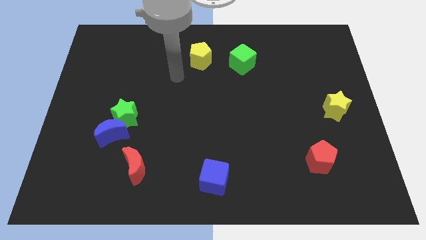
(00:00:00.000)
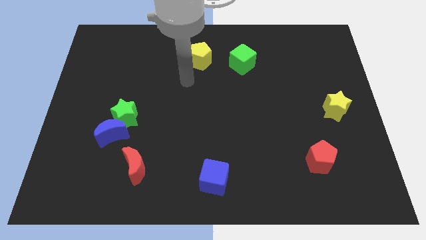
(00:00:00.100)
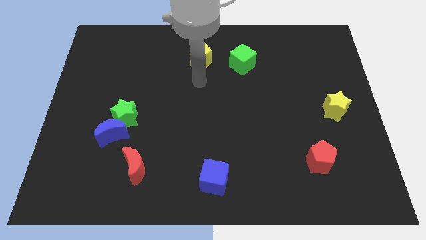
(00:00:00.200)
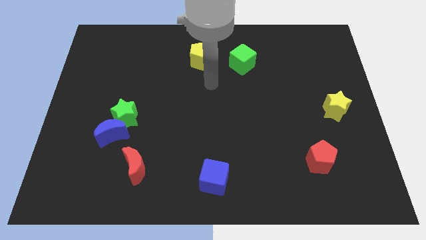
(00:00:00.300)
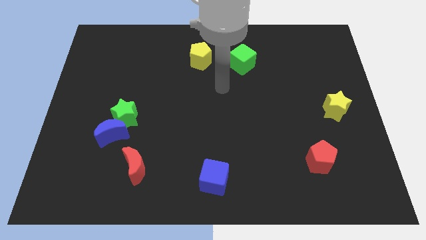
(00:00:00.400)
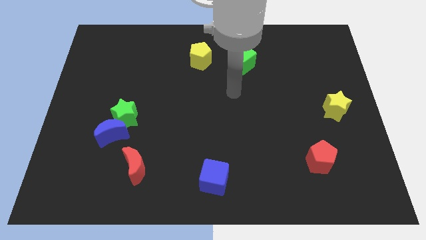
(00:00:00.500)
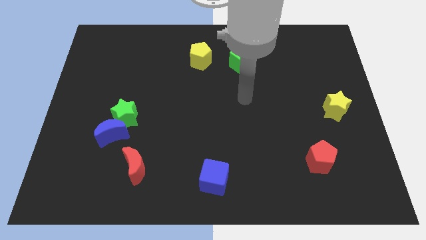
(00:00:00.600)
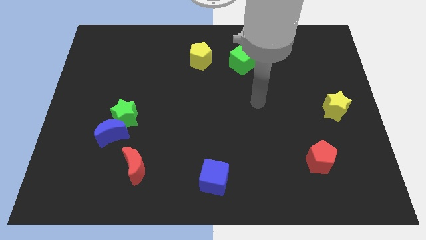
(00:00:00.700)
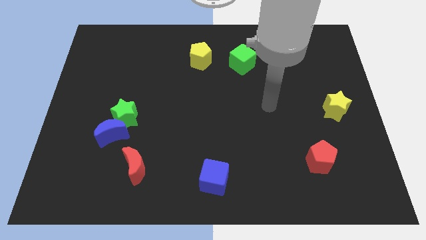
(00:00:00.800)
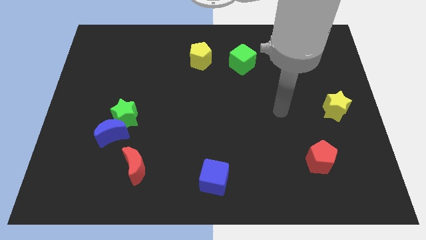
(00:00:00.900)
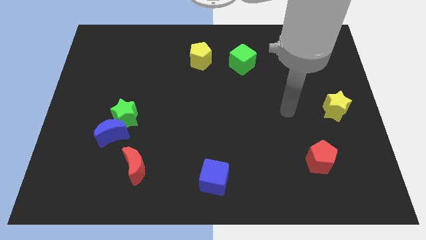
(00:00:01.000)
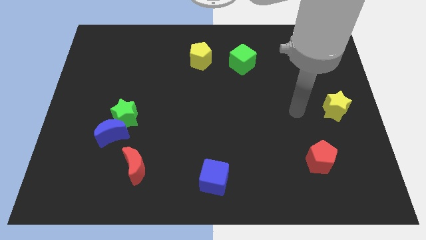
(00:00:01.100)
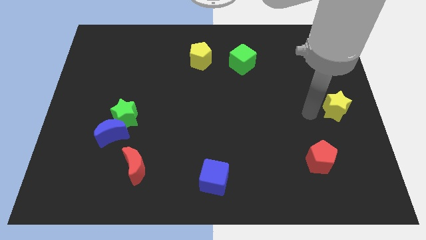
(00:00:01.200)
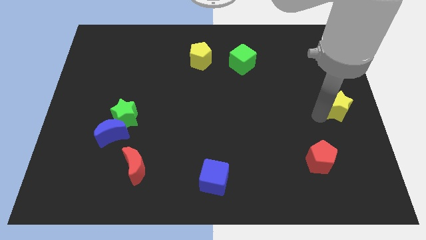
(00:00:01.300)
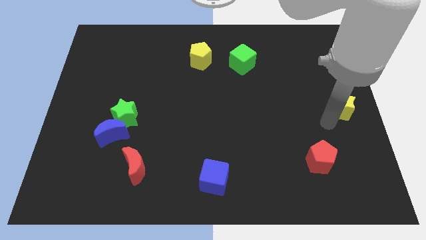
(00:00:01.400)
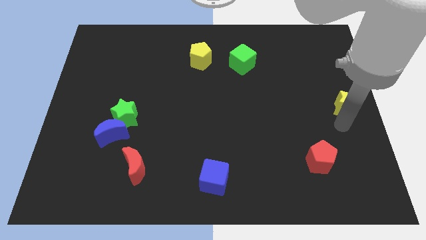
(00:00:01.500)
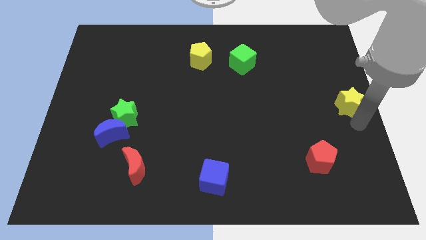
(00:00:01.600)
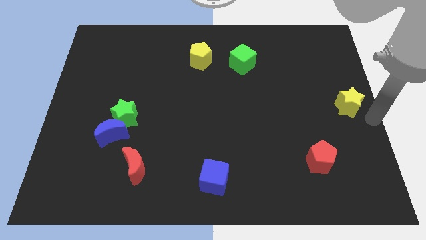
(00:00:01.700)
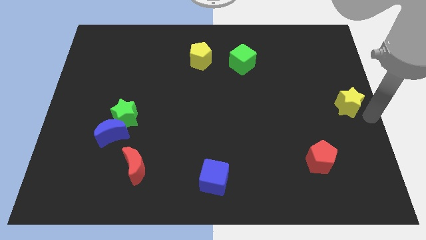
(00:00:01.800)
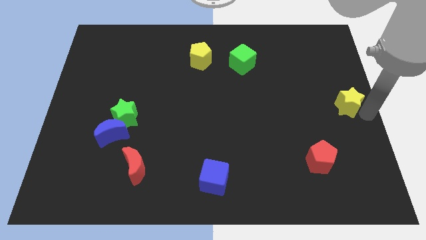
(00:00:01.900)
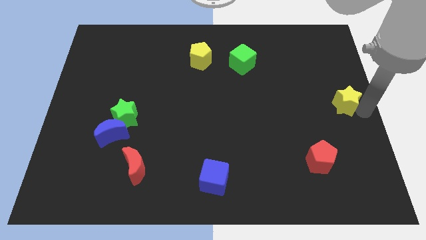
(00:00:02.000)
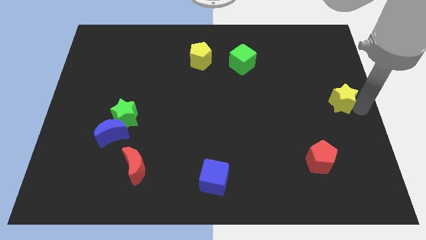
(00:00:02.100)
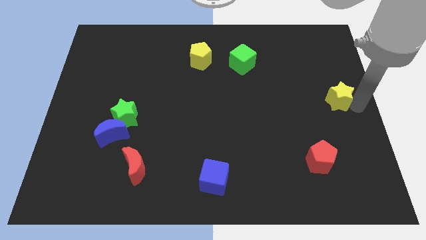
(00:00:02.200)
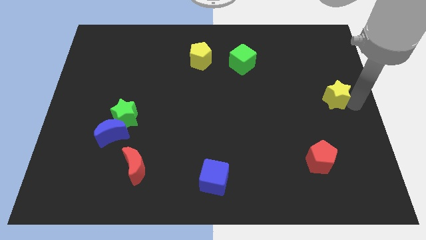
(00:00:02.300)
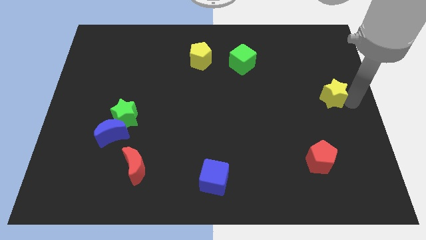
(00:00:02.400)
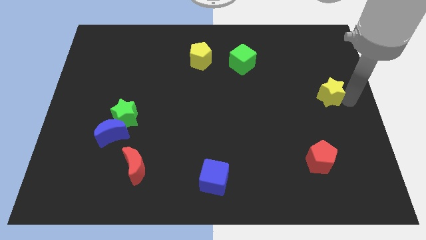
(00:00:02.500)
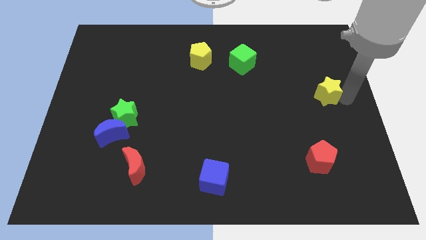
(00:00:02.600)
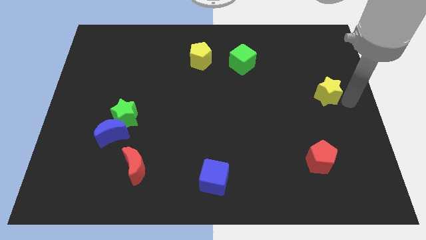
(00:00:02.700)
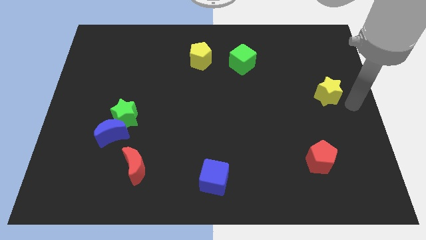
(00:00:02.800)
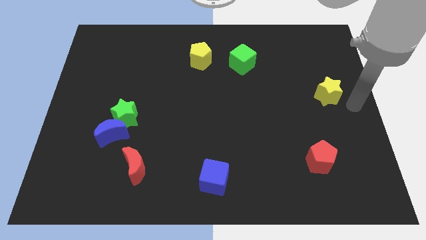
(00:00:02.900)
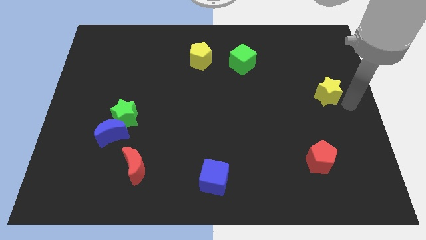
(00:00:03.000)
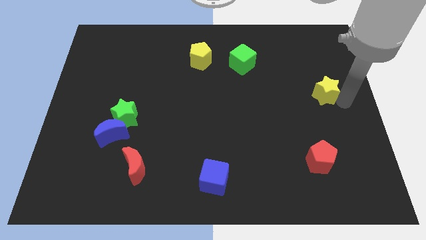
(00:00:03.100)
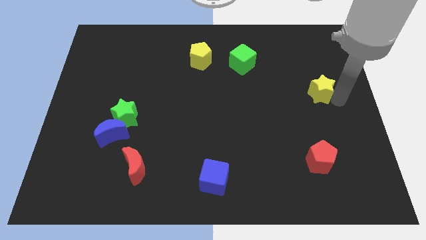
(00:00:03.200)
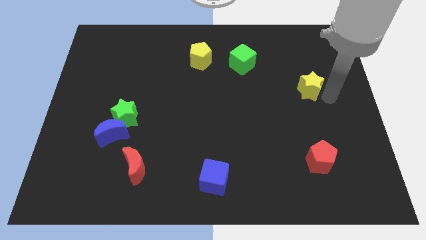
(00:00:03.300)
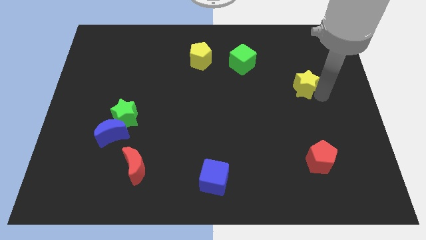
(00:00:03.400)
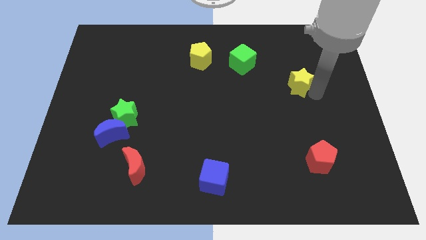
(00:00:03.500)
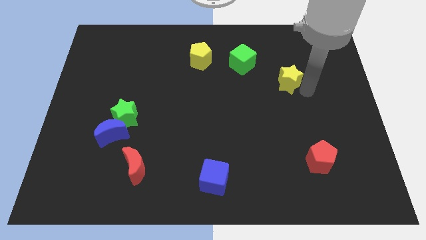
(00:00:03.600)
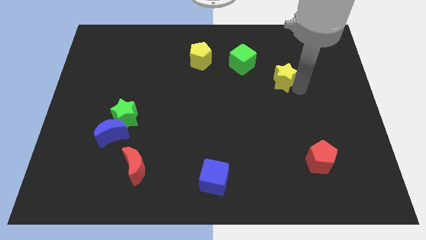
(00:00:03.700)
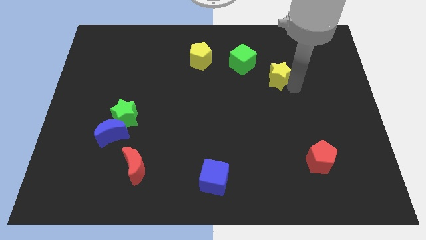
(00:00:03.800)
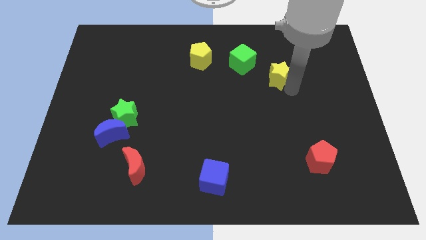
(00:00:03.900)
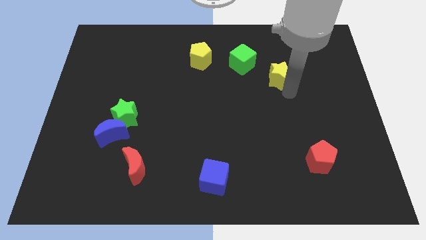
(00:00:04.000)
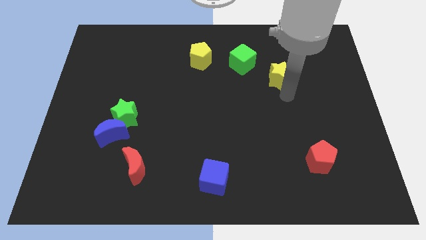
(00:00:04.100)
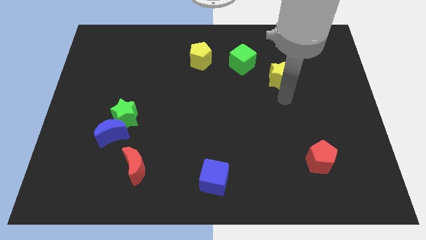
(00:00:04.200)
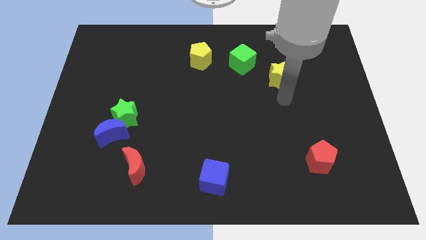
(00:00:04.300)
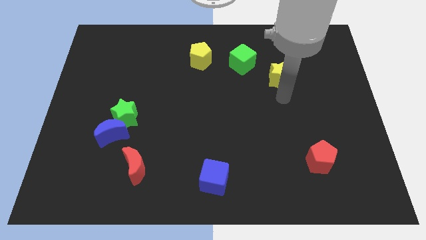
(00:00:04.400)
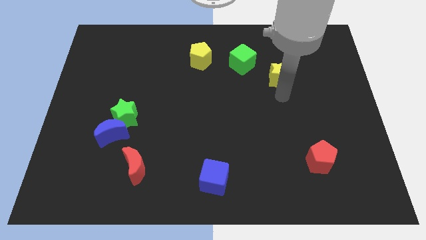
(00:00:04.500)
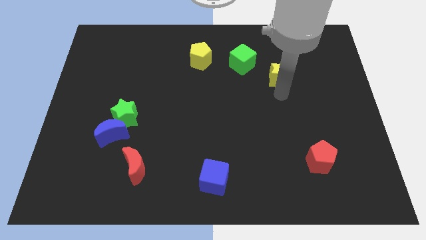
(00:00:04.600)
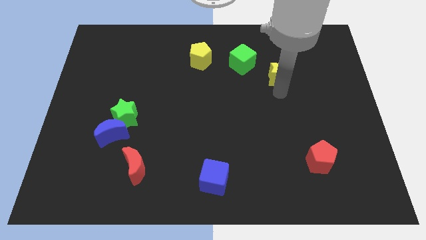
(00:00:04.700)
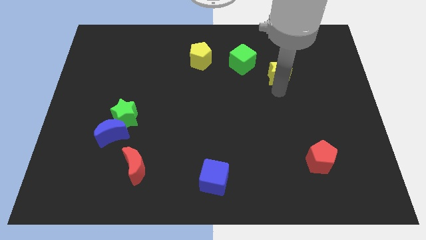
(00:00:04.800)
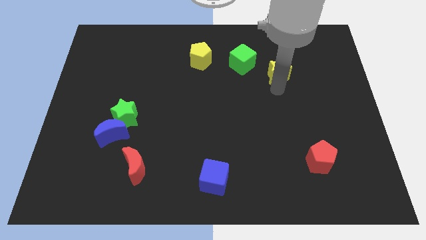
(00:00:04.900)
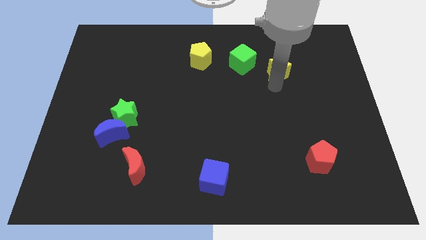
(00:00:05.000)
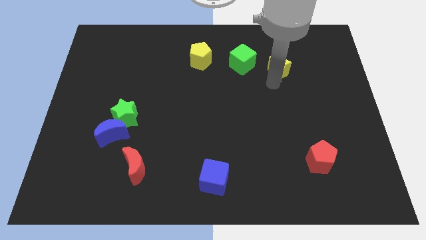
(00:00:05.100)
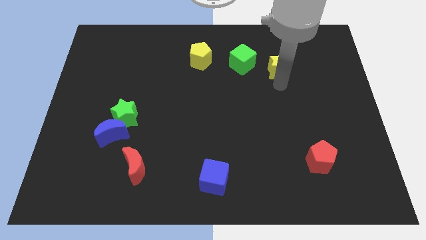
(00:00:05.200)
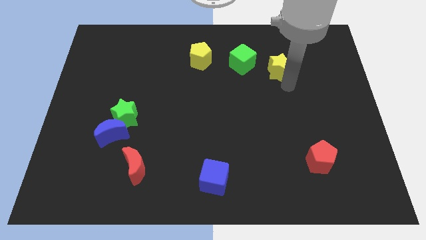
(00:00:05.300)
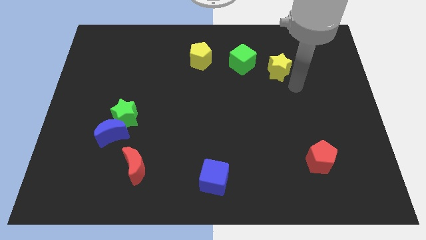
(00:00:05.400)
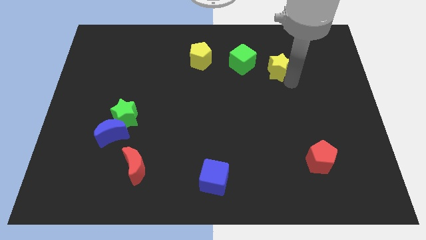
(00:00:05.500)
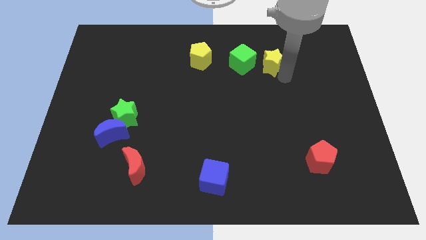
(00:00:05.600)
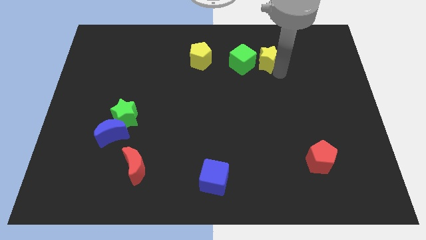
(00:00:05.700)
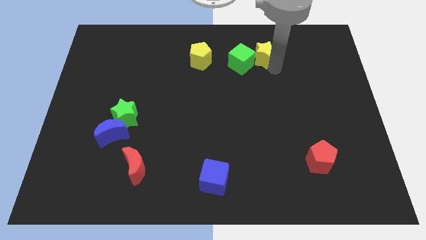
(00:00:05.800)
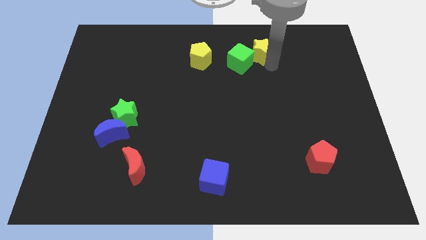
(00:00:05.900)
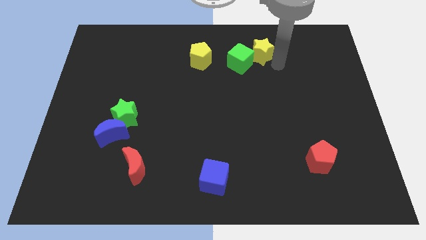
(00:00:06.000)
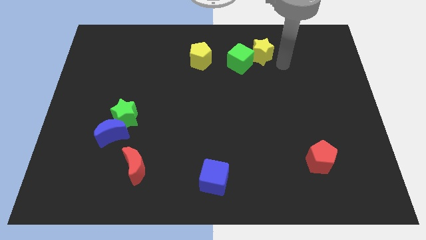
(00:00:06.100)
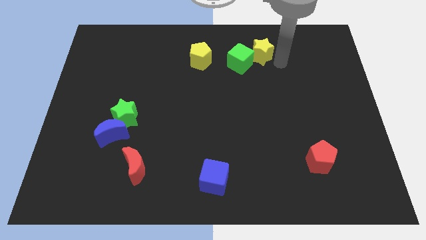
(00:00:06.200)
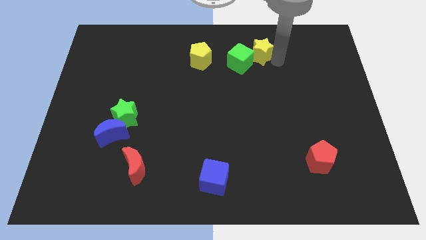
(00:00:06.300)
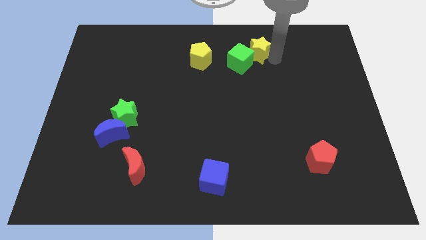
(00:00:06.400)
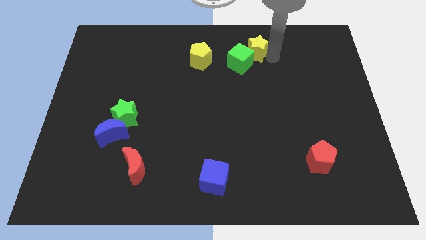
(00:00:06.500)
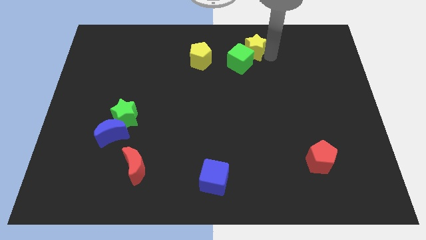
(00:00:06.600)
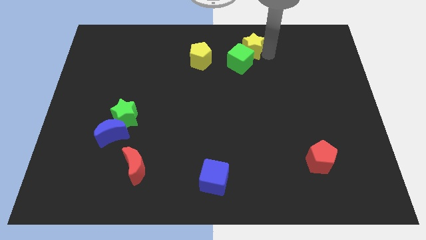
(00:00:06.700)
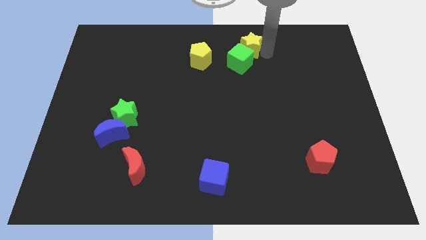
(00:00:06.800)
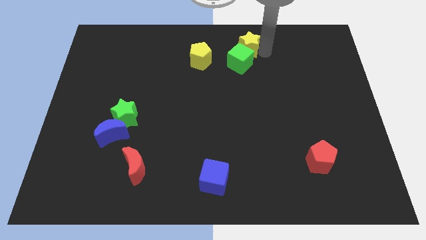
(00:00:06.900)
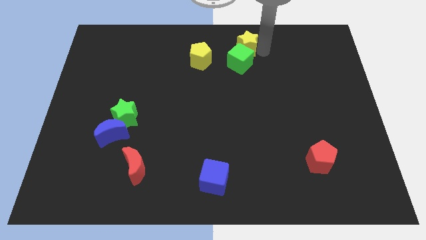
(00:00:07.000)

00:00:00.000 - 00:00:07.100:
move the yellow star to the towards your base
